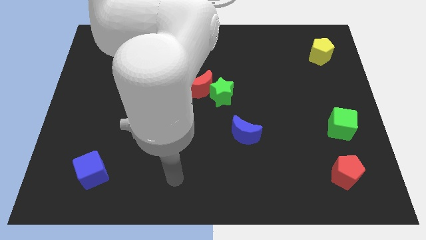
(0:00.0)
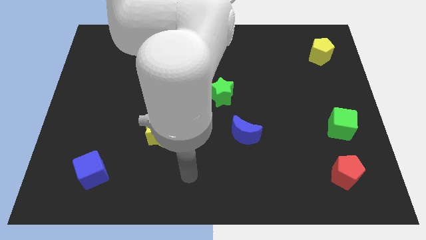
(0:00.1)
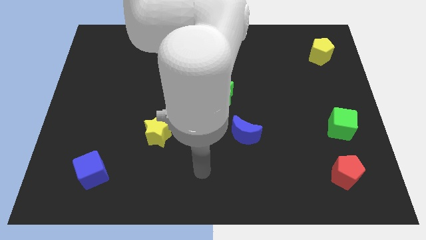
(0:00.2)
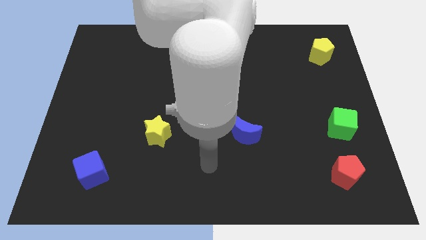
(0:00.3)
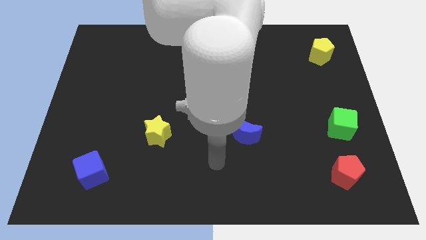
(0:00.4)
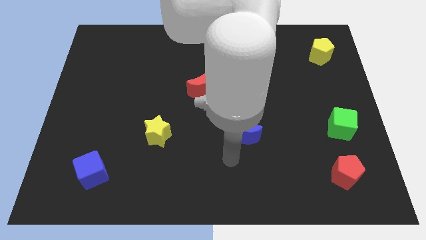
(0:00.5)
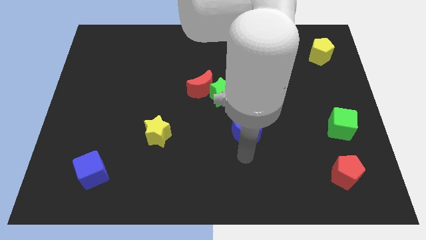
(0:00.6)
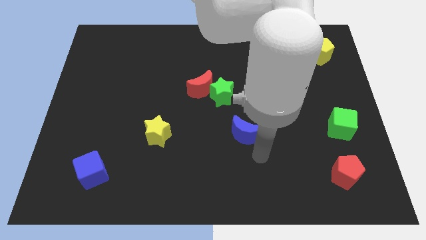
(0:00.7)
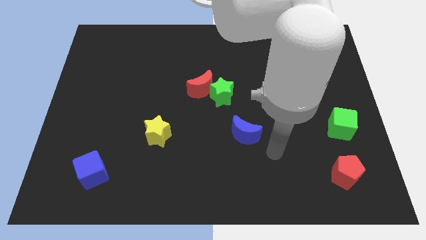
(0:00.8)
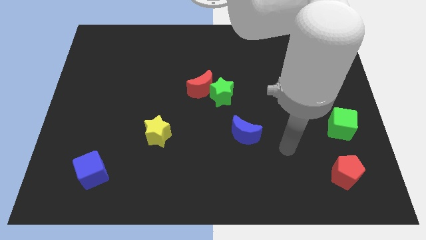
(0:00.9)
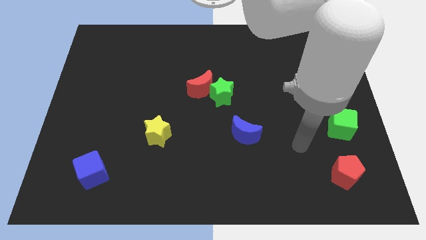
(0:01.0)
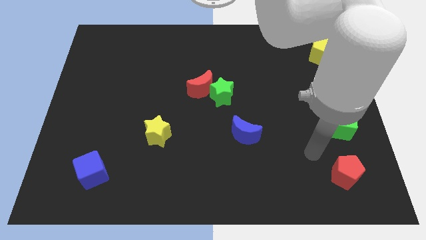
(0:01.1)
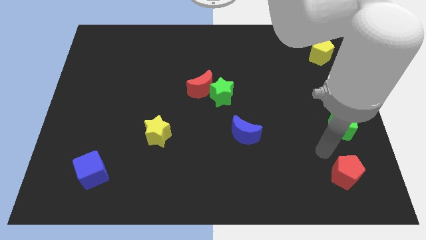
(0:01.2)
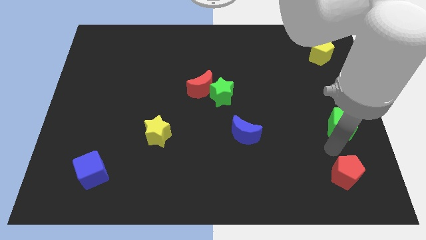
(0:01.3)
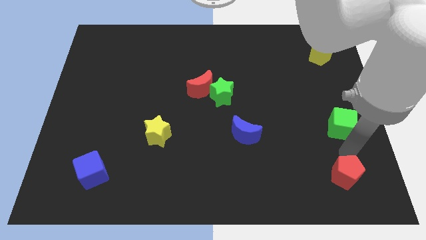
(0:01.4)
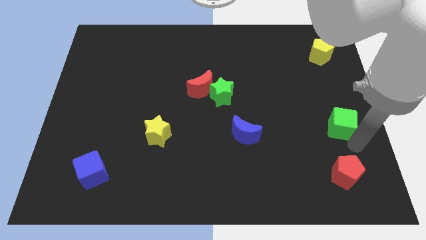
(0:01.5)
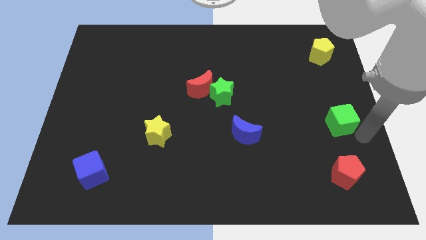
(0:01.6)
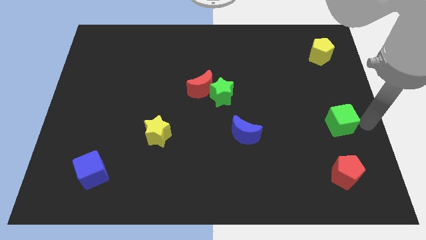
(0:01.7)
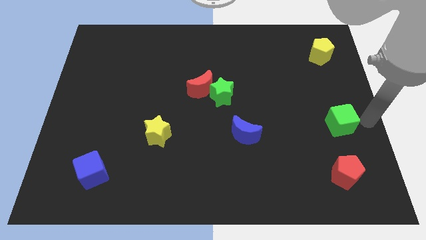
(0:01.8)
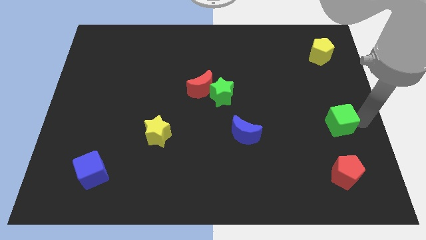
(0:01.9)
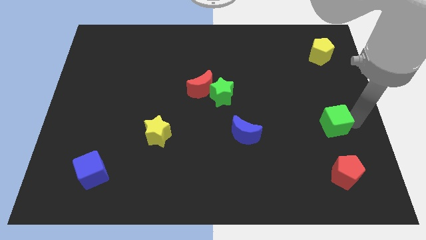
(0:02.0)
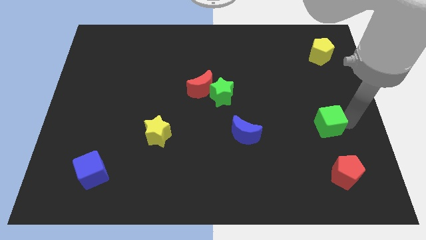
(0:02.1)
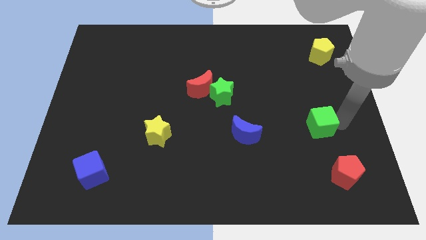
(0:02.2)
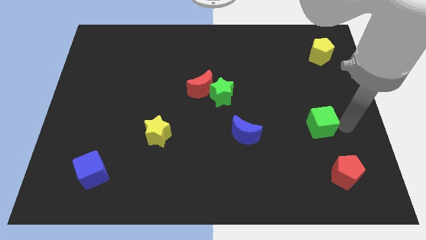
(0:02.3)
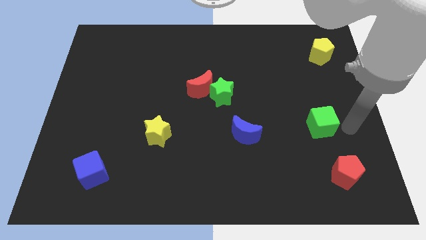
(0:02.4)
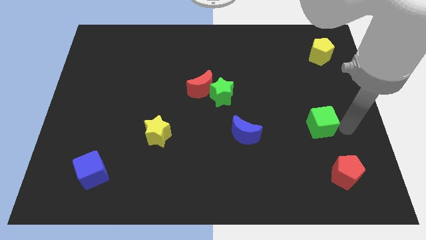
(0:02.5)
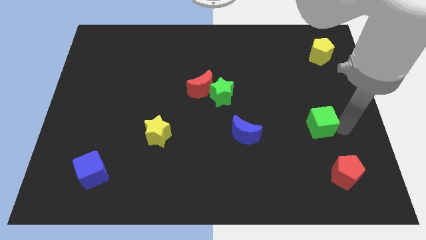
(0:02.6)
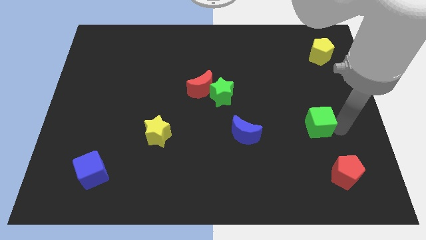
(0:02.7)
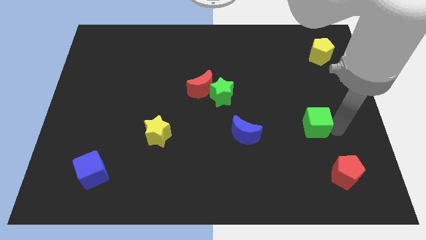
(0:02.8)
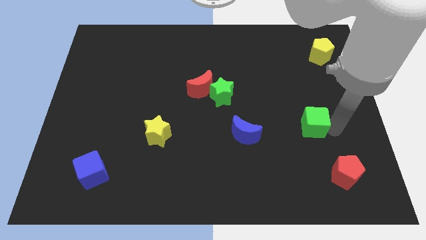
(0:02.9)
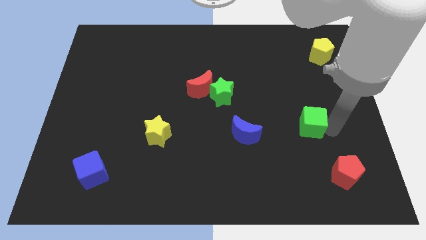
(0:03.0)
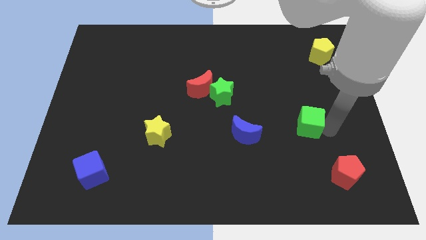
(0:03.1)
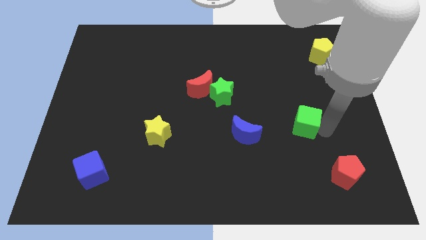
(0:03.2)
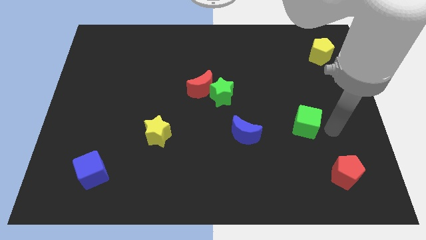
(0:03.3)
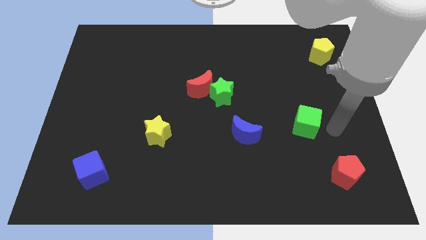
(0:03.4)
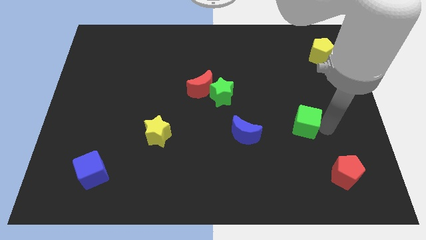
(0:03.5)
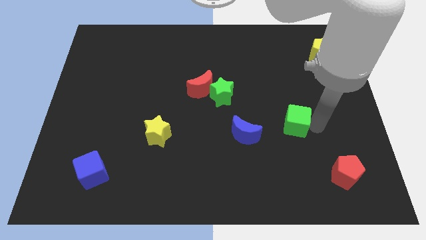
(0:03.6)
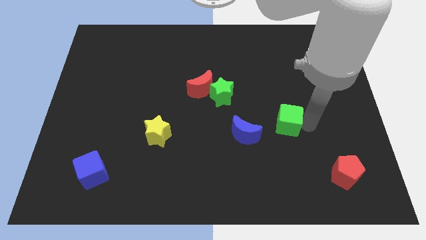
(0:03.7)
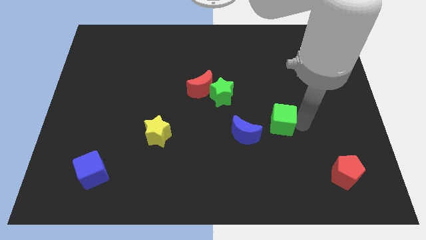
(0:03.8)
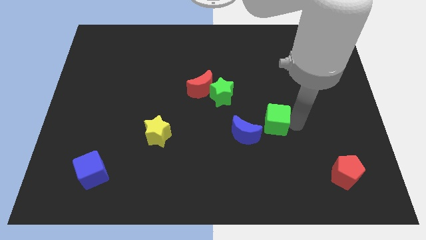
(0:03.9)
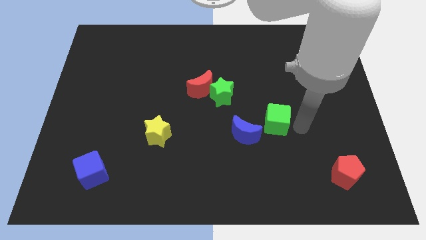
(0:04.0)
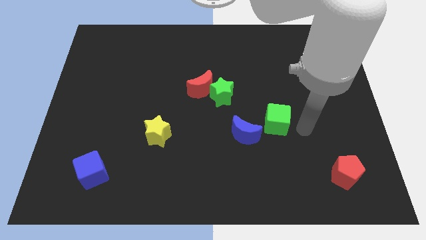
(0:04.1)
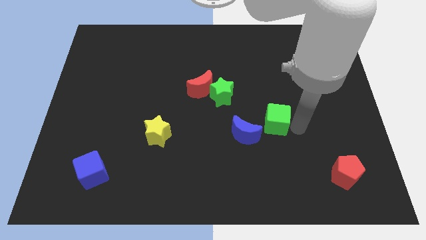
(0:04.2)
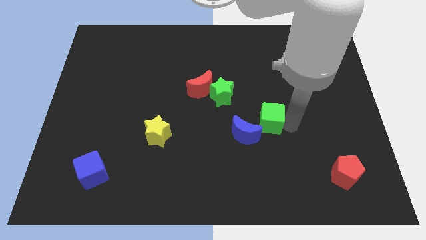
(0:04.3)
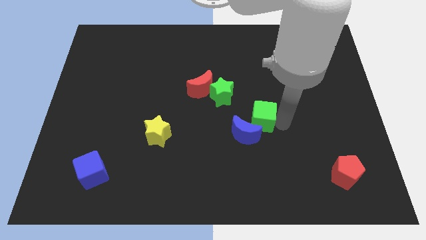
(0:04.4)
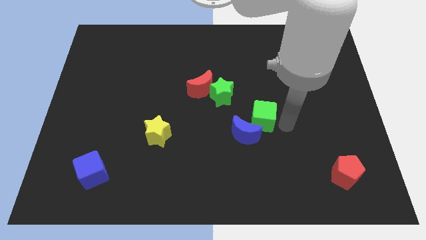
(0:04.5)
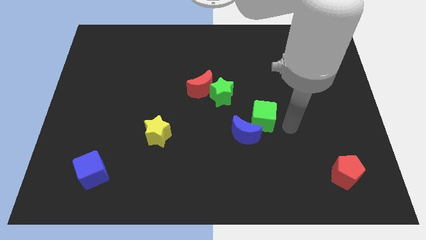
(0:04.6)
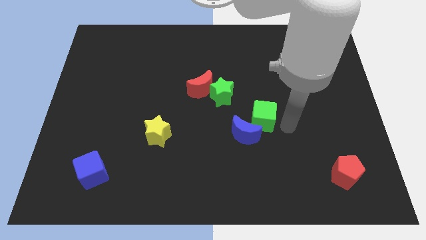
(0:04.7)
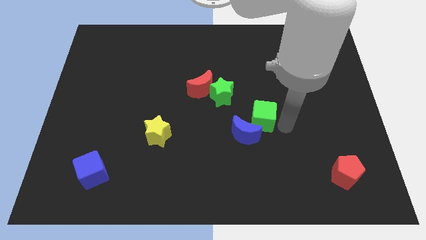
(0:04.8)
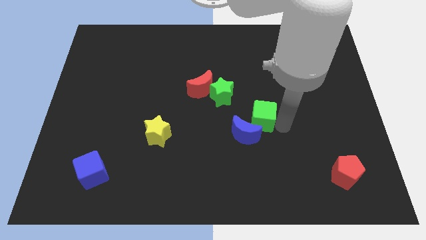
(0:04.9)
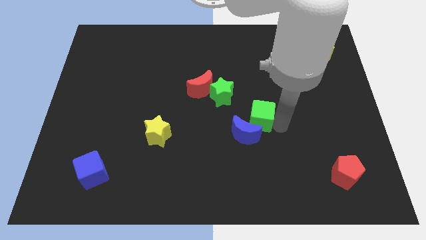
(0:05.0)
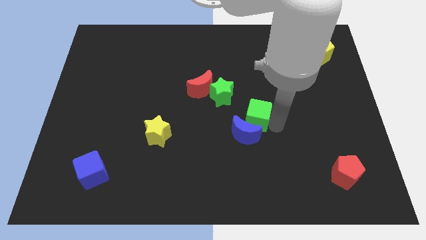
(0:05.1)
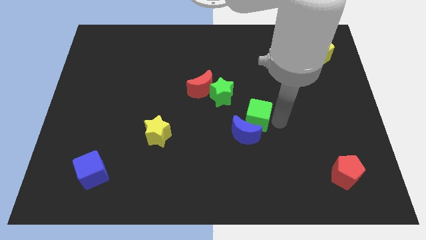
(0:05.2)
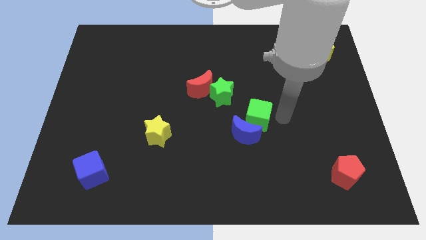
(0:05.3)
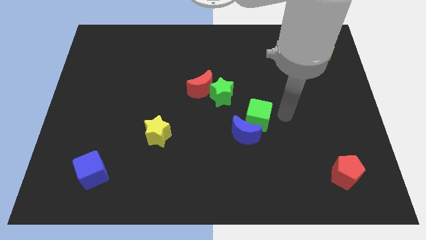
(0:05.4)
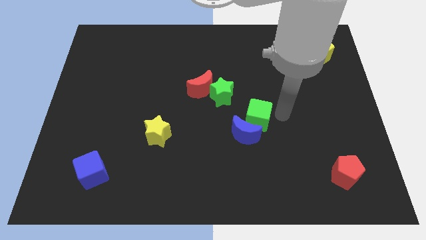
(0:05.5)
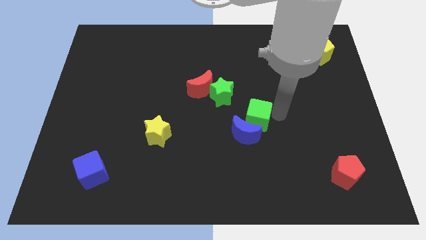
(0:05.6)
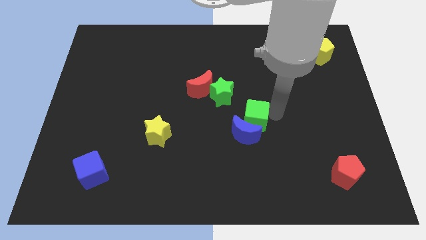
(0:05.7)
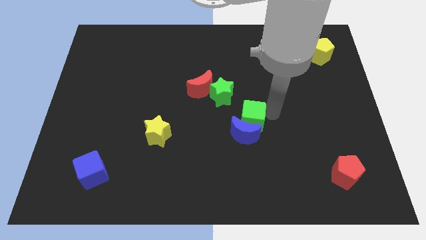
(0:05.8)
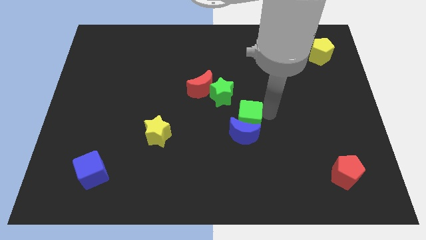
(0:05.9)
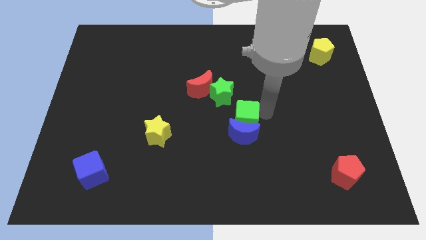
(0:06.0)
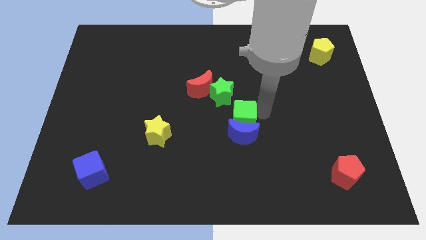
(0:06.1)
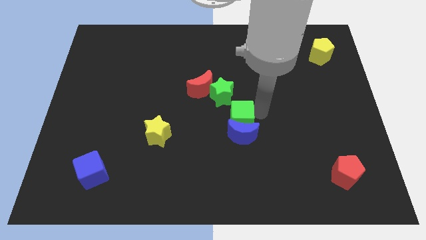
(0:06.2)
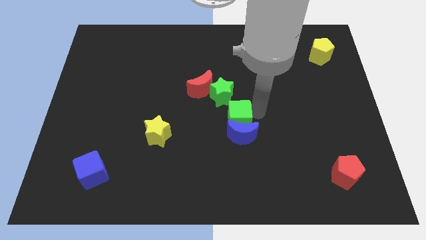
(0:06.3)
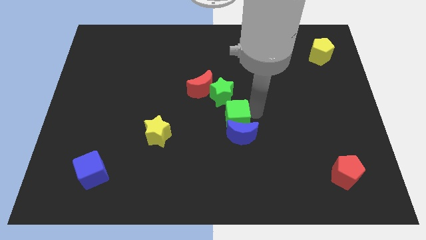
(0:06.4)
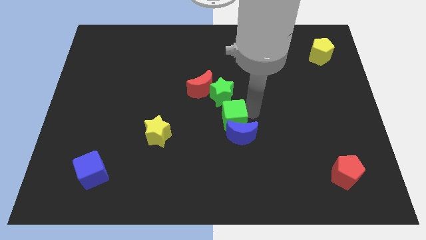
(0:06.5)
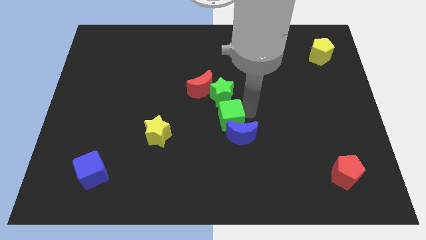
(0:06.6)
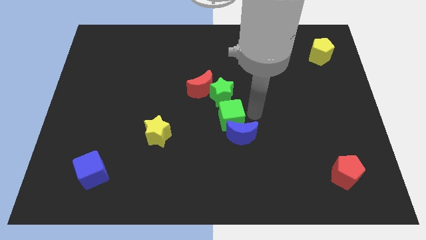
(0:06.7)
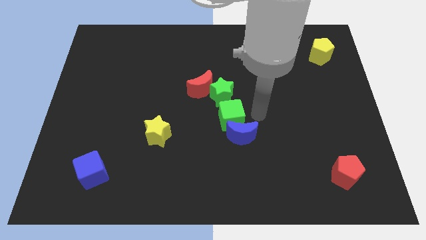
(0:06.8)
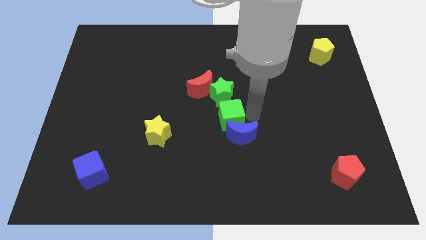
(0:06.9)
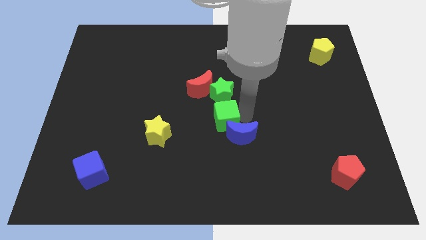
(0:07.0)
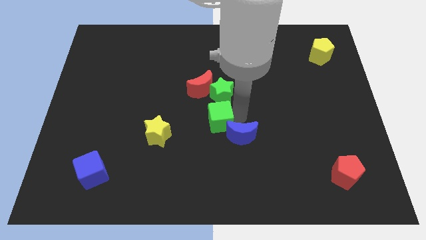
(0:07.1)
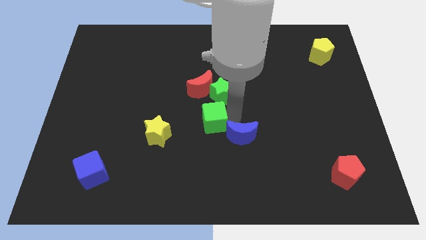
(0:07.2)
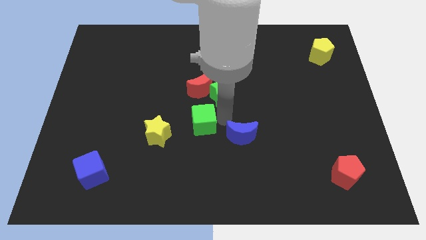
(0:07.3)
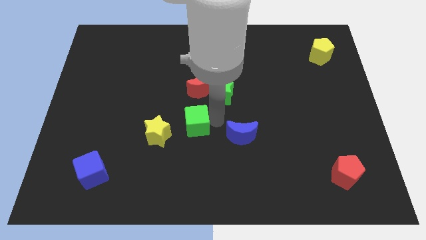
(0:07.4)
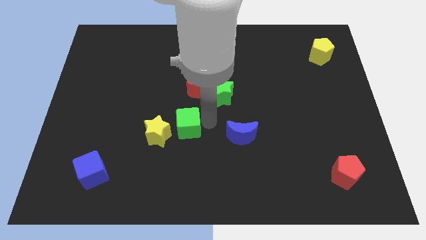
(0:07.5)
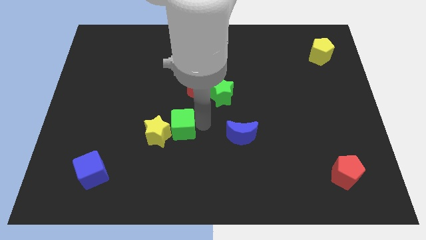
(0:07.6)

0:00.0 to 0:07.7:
move the green cube close to the yellow star
